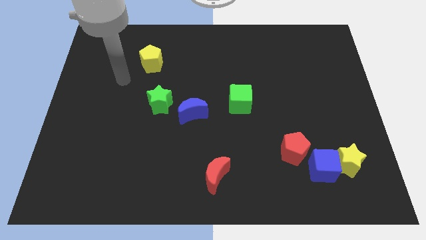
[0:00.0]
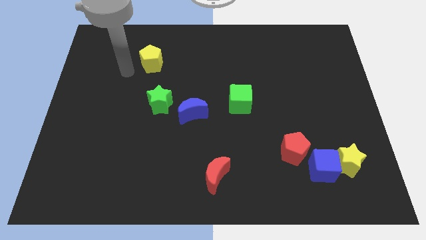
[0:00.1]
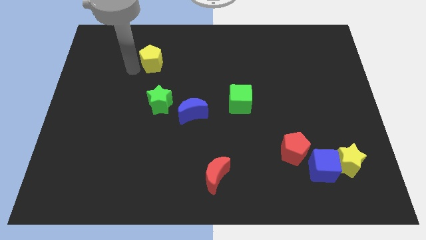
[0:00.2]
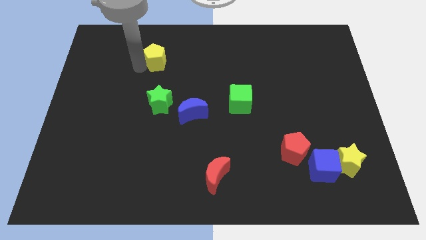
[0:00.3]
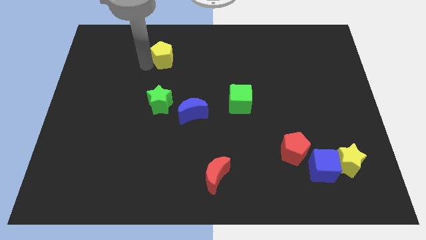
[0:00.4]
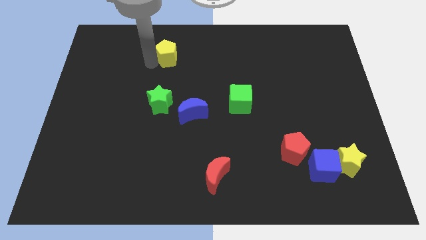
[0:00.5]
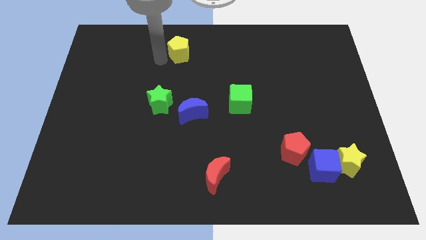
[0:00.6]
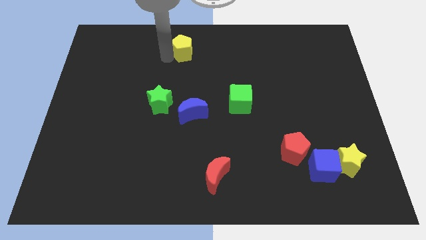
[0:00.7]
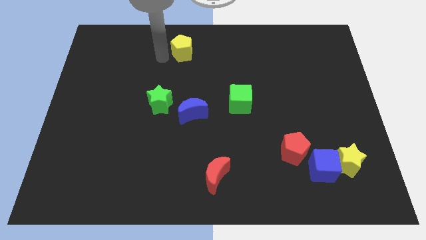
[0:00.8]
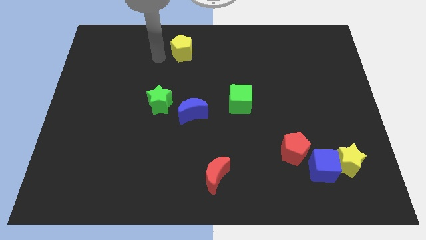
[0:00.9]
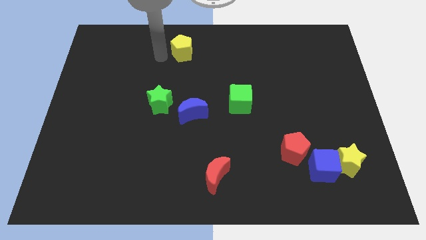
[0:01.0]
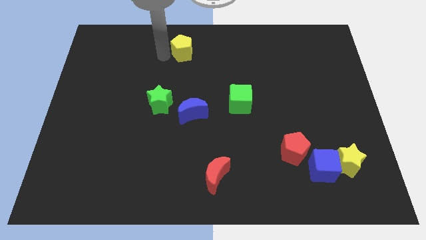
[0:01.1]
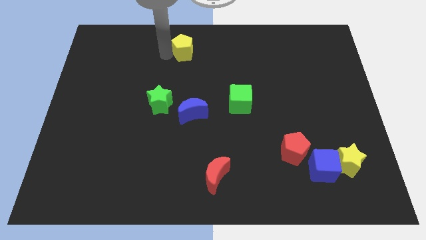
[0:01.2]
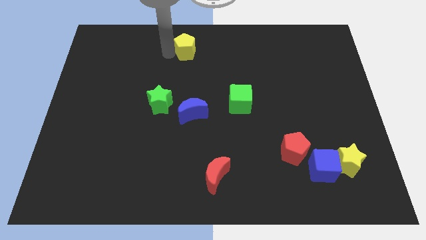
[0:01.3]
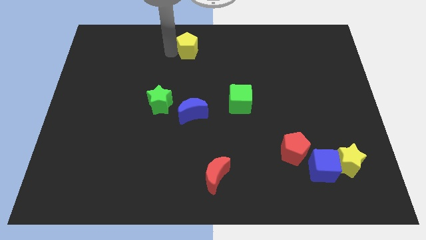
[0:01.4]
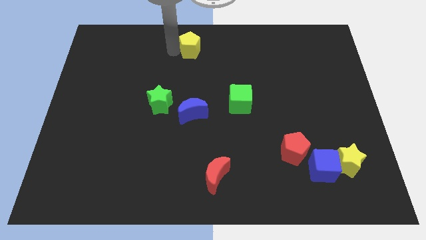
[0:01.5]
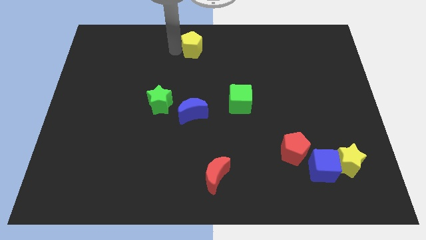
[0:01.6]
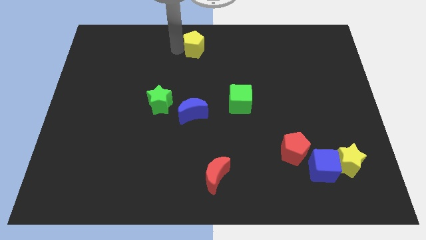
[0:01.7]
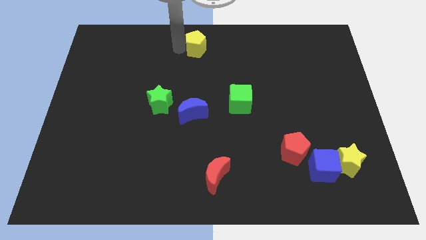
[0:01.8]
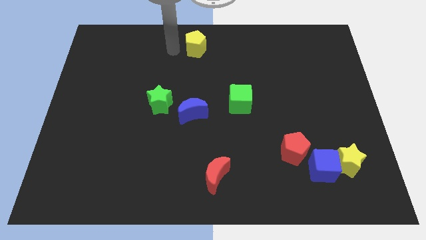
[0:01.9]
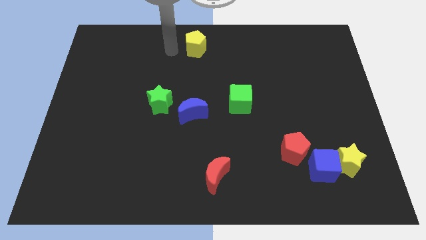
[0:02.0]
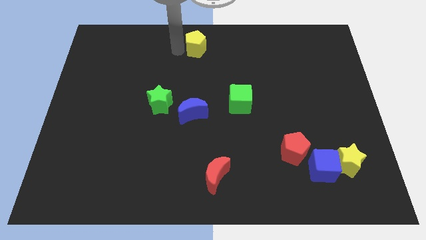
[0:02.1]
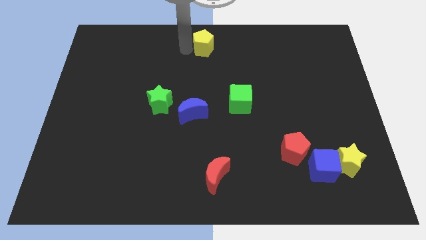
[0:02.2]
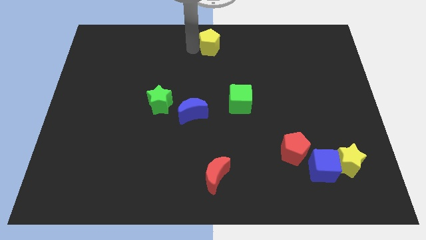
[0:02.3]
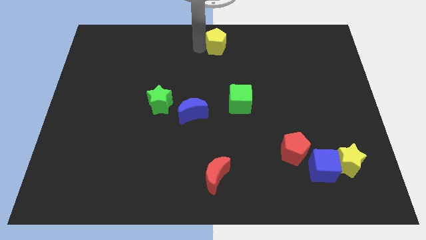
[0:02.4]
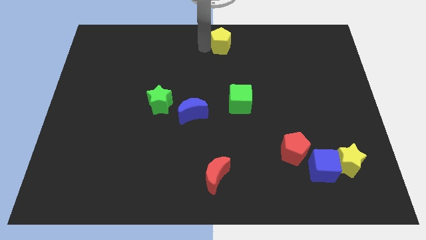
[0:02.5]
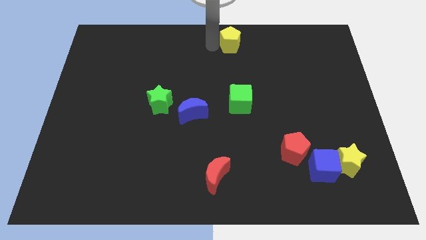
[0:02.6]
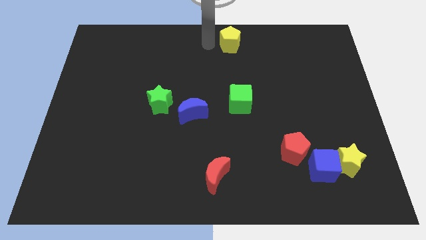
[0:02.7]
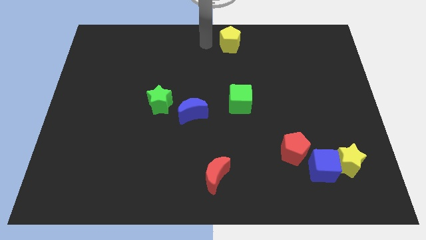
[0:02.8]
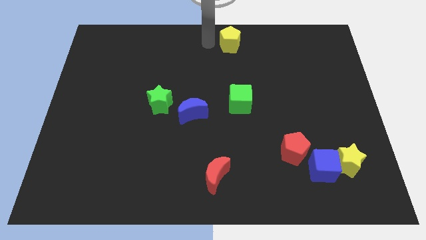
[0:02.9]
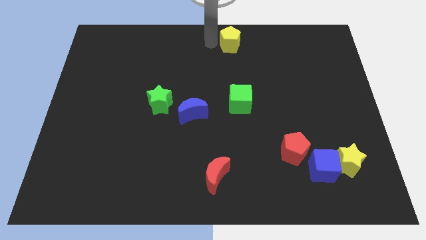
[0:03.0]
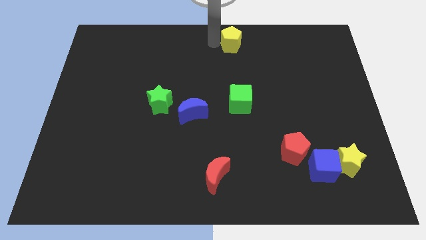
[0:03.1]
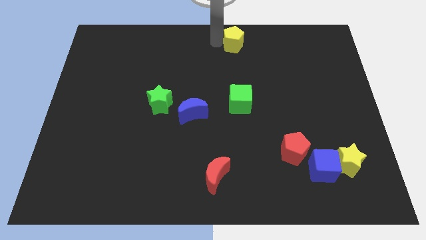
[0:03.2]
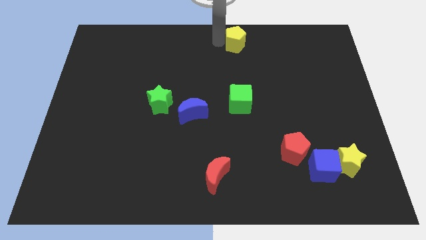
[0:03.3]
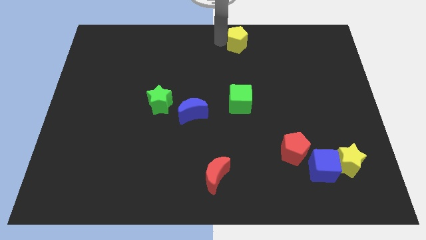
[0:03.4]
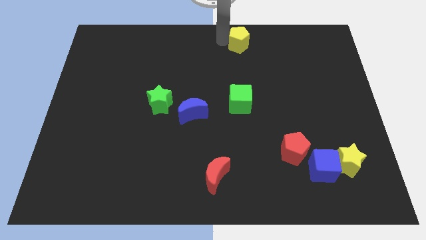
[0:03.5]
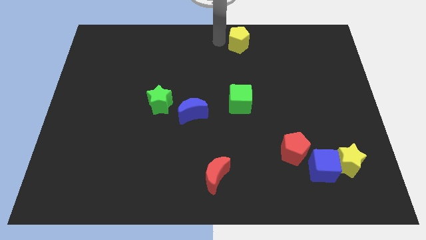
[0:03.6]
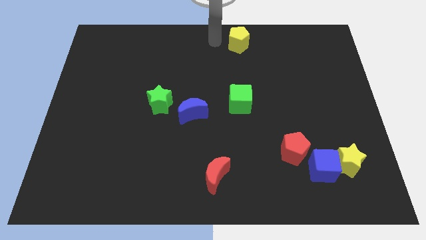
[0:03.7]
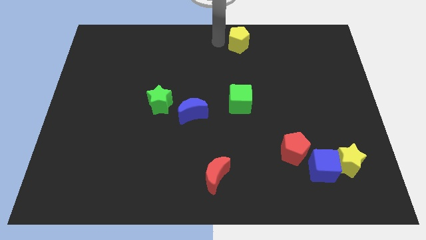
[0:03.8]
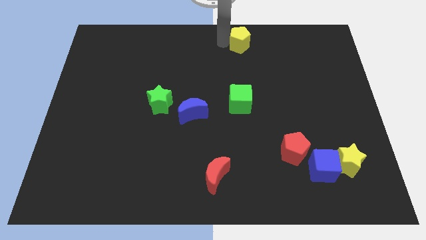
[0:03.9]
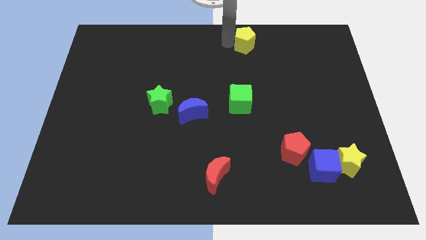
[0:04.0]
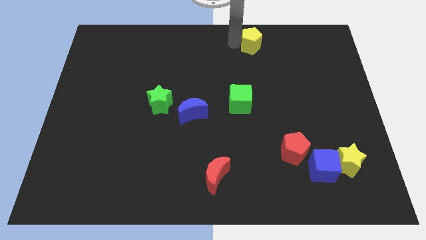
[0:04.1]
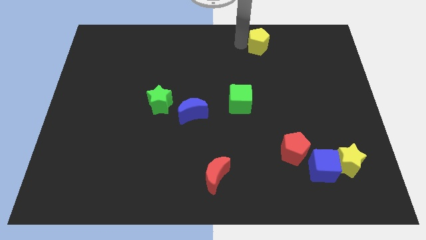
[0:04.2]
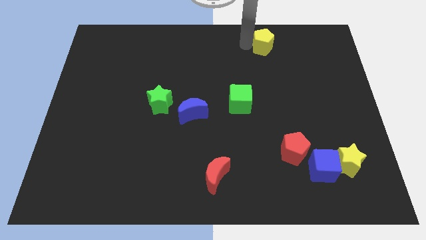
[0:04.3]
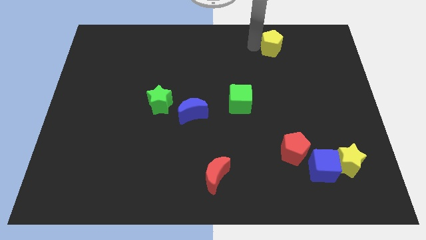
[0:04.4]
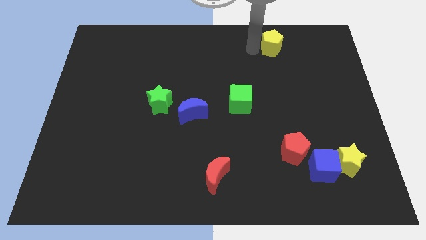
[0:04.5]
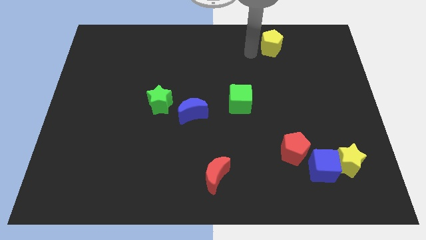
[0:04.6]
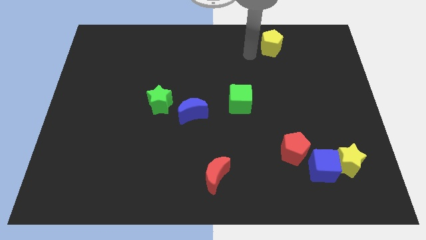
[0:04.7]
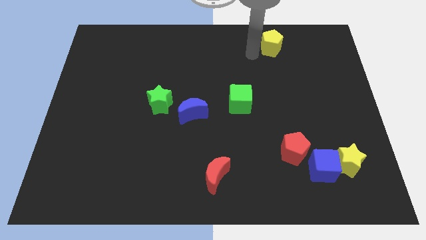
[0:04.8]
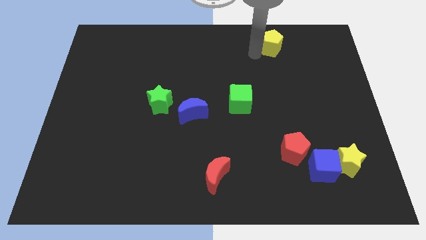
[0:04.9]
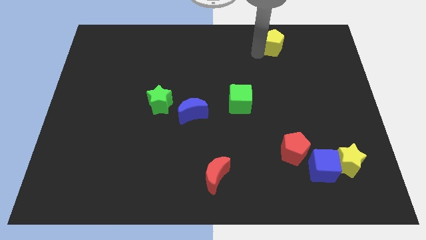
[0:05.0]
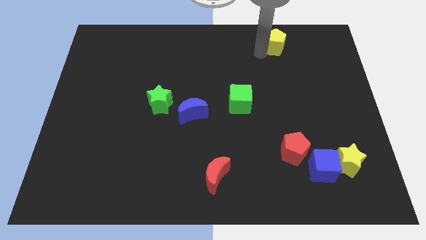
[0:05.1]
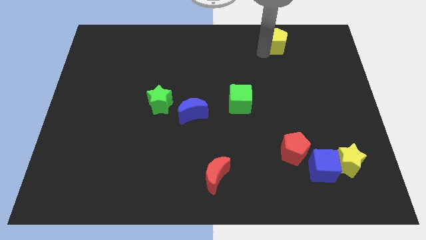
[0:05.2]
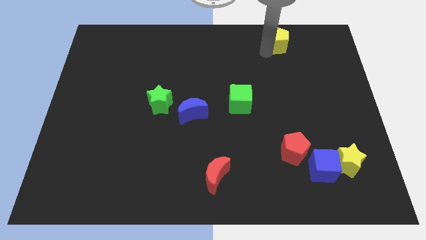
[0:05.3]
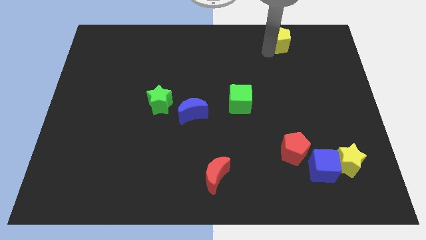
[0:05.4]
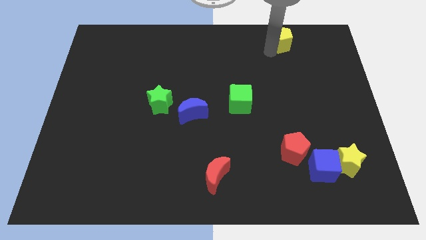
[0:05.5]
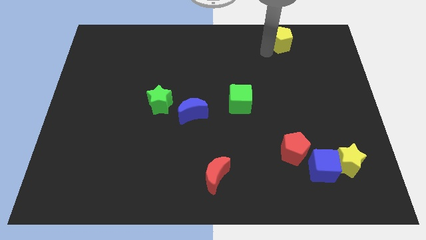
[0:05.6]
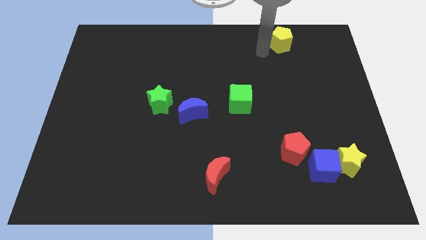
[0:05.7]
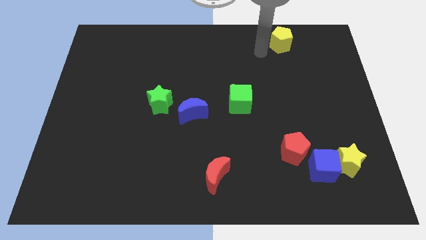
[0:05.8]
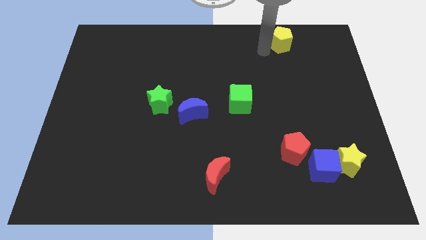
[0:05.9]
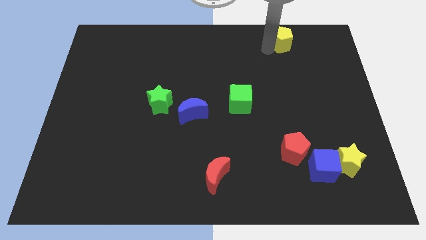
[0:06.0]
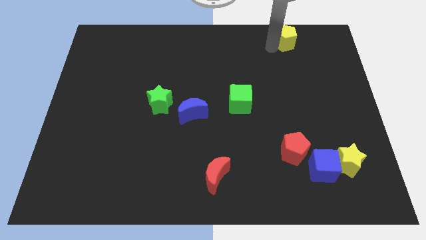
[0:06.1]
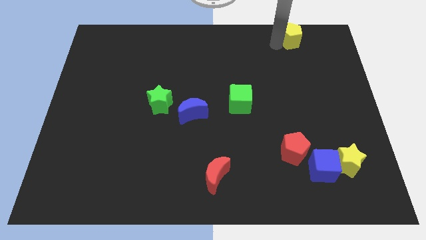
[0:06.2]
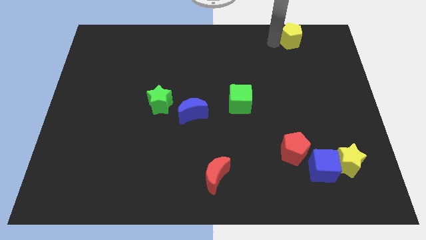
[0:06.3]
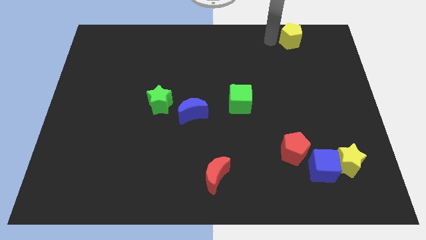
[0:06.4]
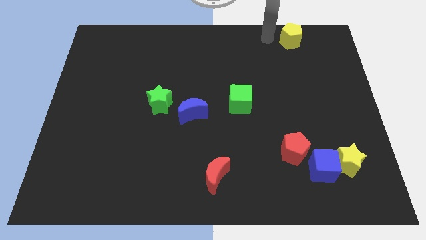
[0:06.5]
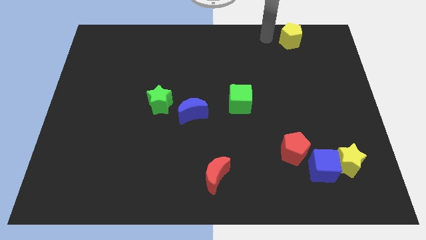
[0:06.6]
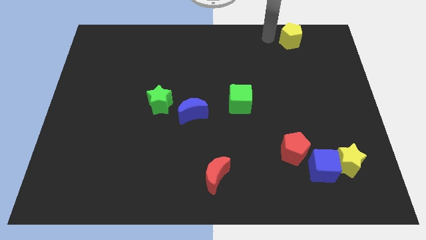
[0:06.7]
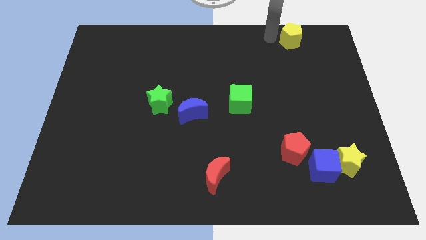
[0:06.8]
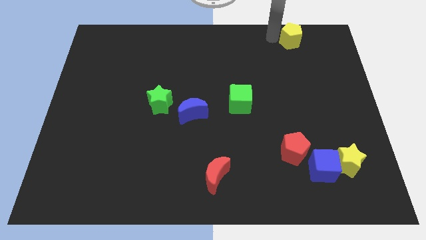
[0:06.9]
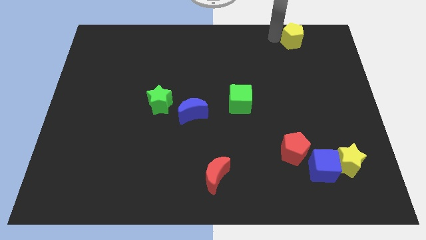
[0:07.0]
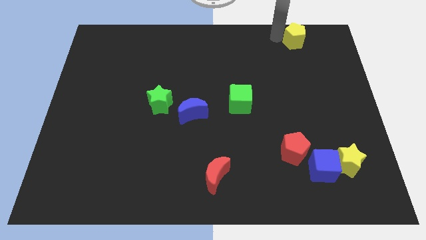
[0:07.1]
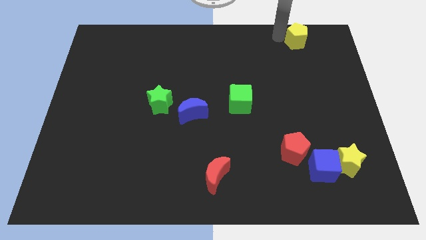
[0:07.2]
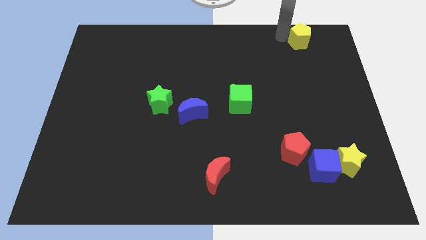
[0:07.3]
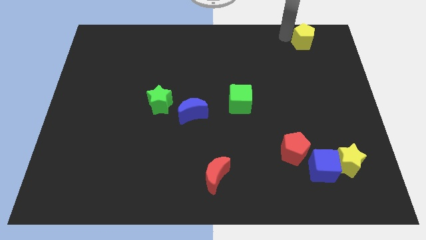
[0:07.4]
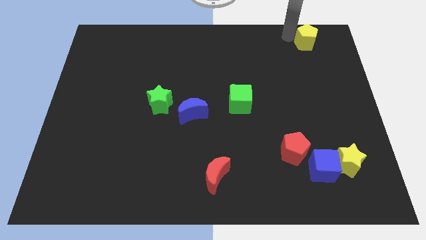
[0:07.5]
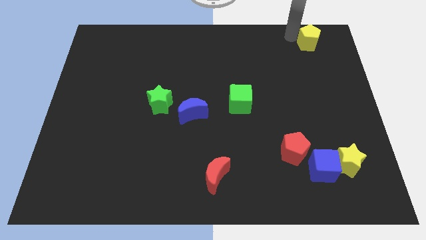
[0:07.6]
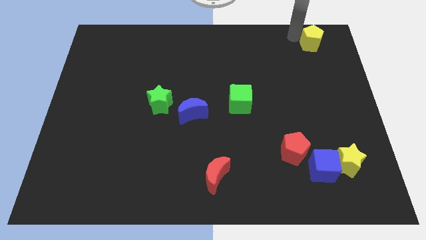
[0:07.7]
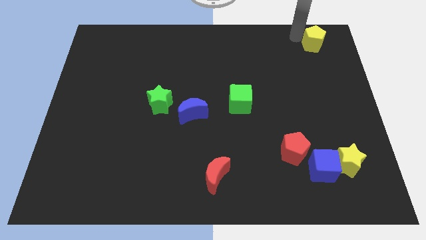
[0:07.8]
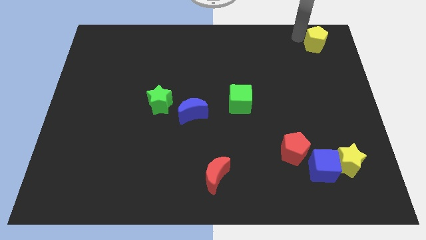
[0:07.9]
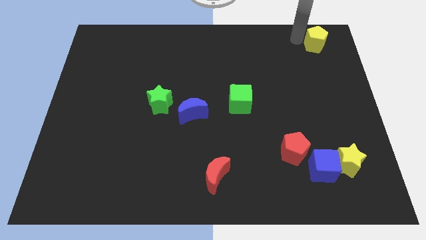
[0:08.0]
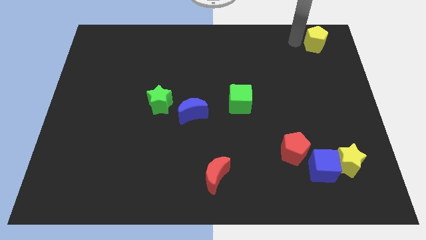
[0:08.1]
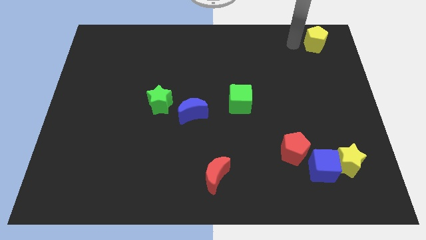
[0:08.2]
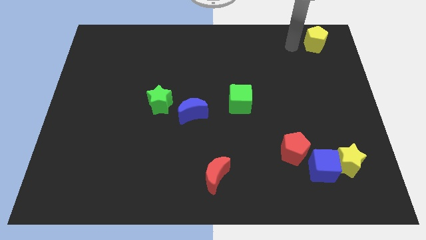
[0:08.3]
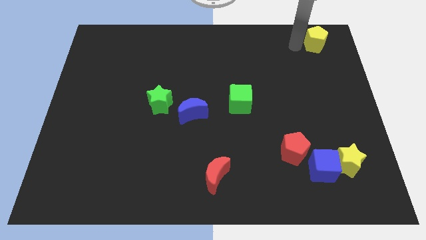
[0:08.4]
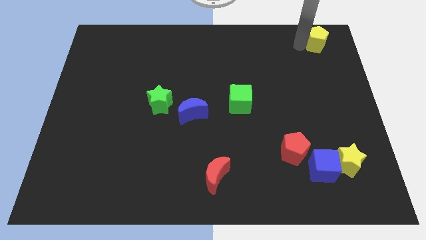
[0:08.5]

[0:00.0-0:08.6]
put the yellow pentagon to the top right of the board
